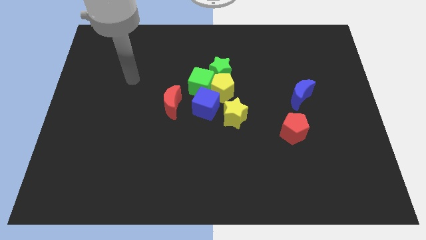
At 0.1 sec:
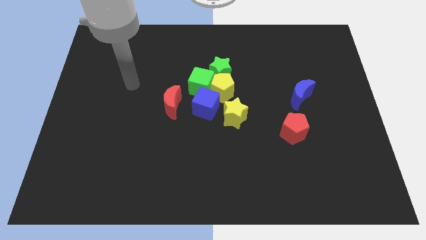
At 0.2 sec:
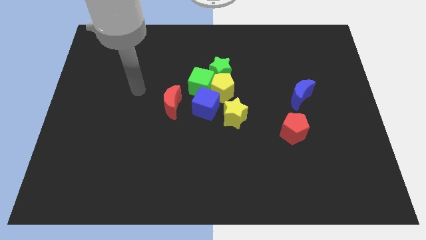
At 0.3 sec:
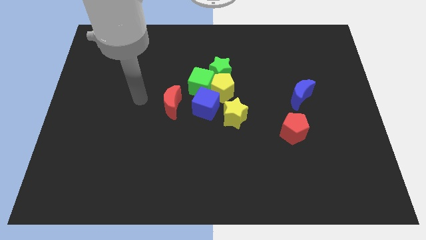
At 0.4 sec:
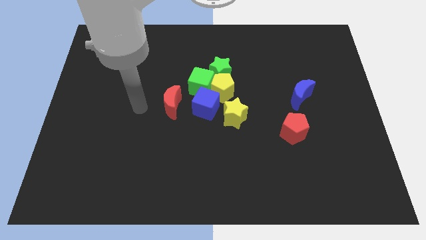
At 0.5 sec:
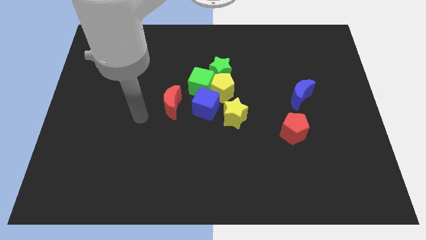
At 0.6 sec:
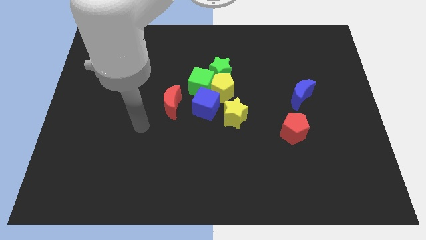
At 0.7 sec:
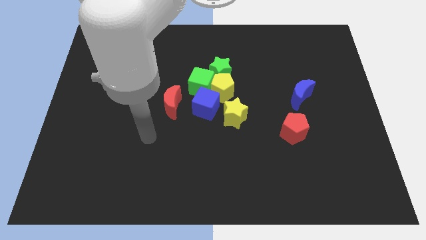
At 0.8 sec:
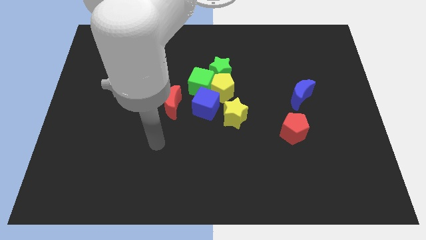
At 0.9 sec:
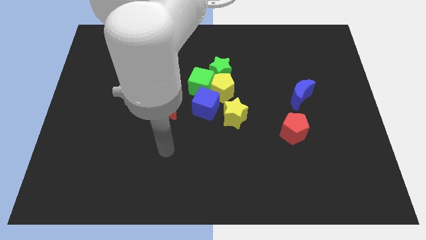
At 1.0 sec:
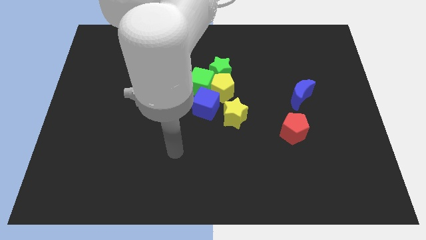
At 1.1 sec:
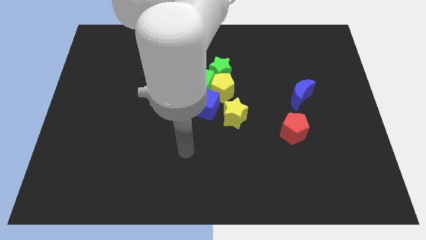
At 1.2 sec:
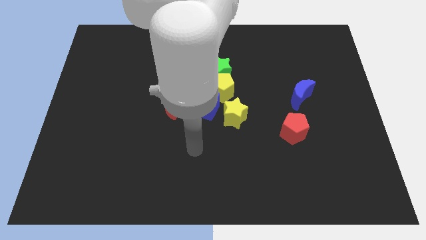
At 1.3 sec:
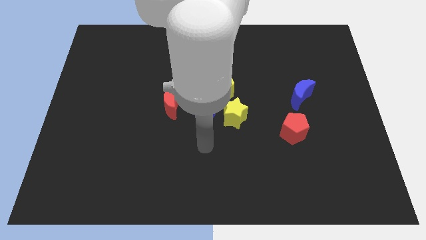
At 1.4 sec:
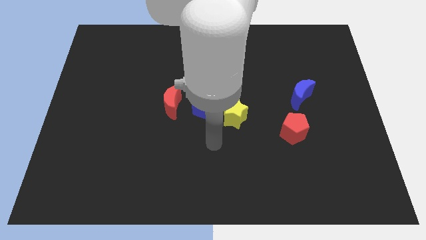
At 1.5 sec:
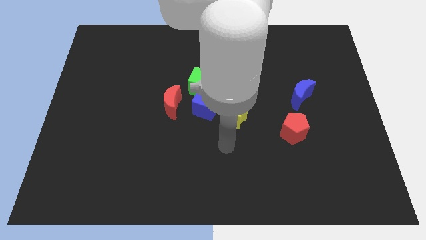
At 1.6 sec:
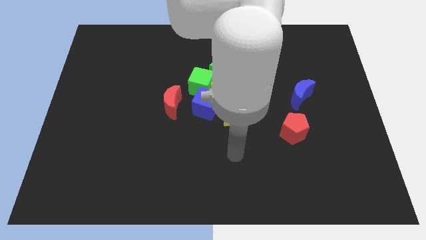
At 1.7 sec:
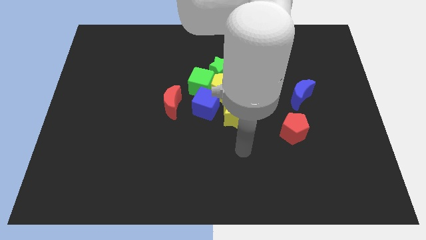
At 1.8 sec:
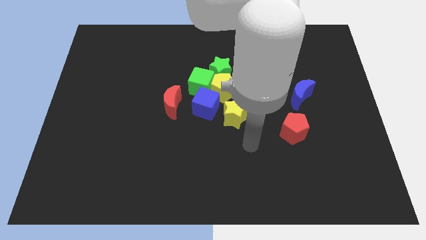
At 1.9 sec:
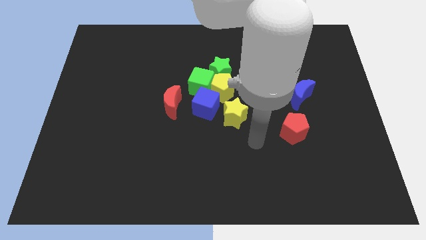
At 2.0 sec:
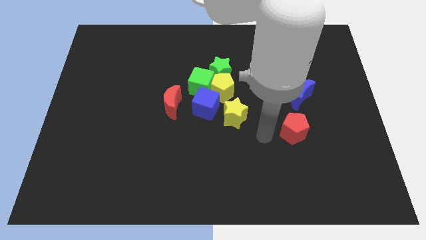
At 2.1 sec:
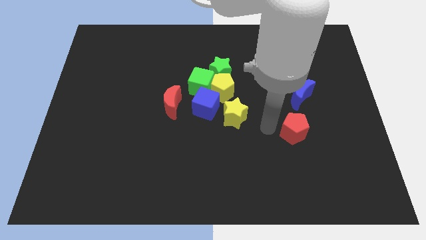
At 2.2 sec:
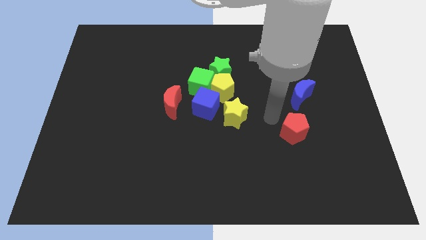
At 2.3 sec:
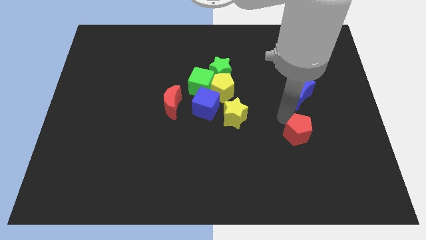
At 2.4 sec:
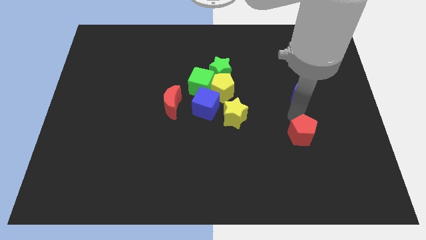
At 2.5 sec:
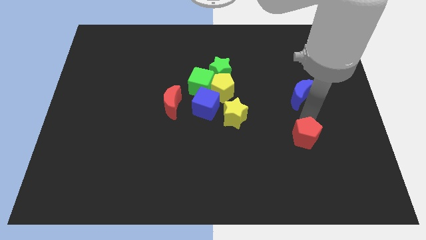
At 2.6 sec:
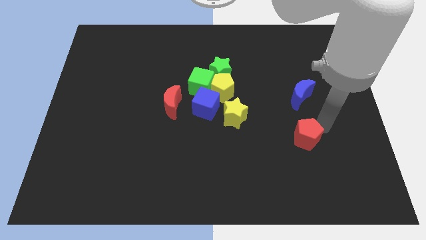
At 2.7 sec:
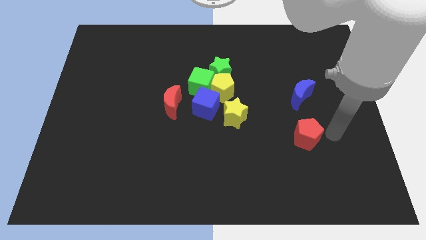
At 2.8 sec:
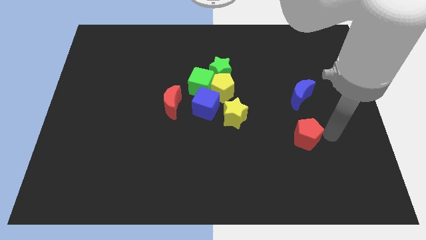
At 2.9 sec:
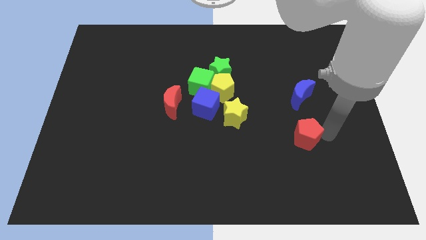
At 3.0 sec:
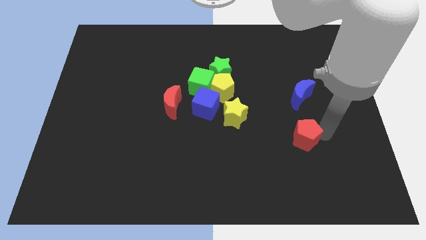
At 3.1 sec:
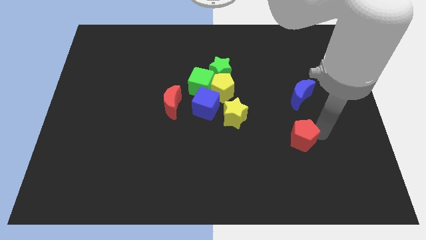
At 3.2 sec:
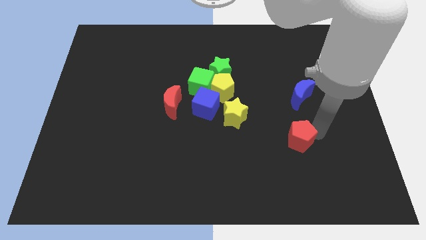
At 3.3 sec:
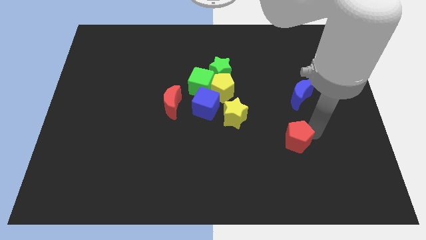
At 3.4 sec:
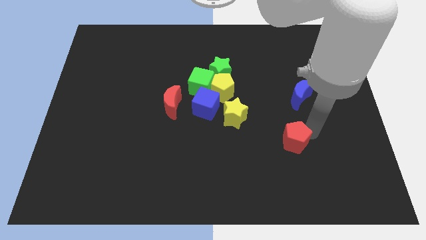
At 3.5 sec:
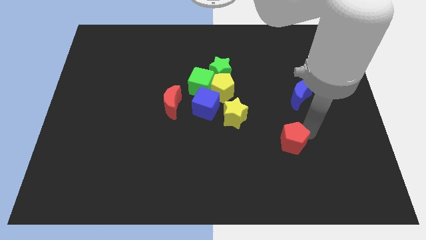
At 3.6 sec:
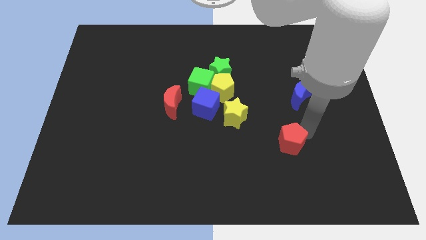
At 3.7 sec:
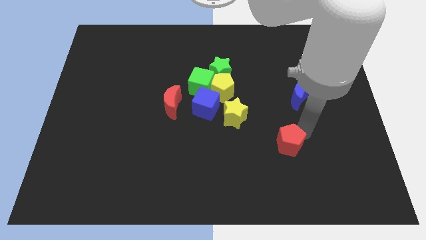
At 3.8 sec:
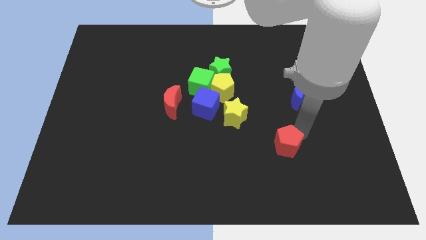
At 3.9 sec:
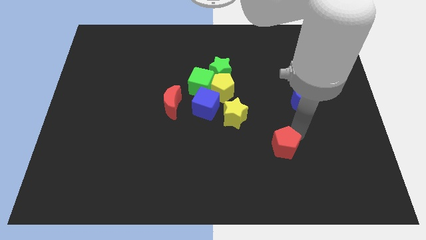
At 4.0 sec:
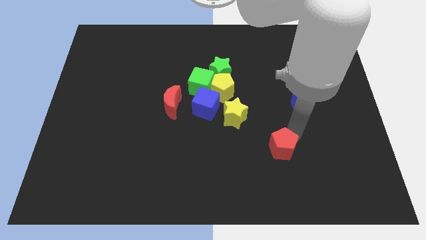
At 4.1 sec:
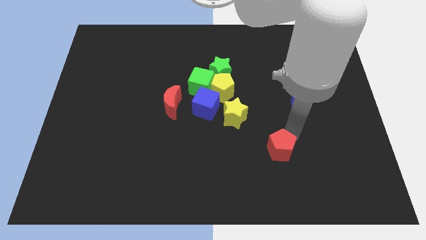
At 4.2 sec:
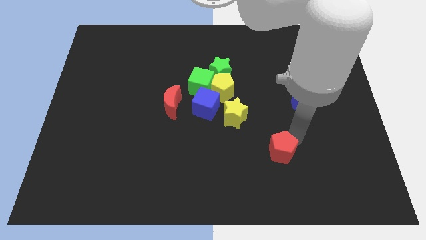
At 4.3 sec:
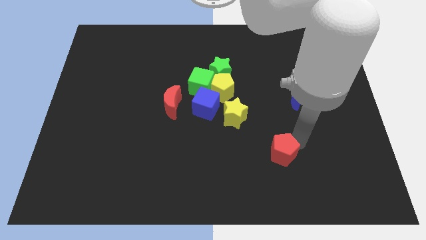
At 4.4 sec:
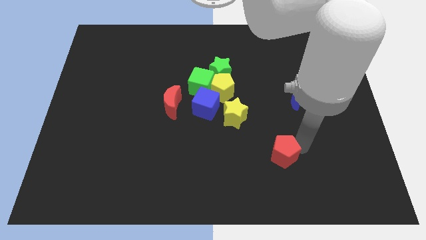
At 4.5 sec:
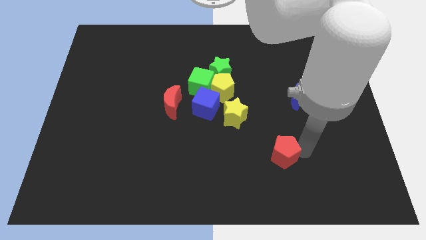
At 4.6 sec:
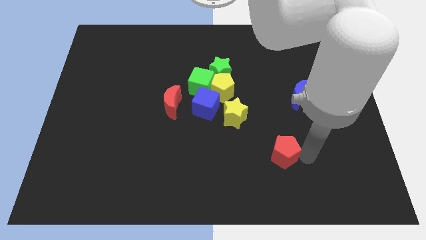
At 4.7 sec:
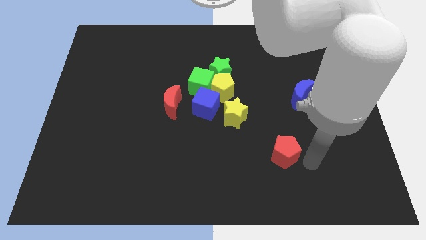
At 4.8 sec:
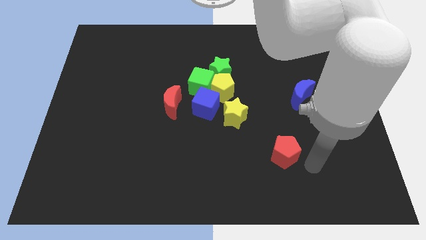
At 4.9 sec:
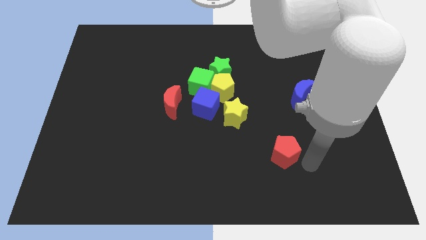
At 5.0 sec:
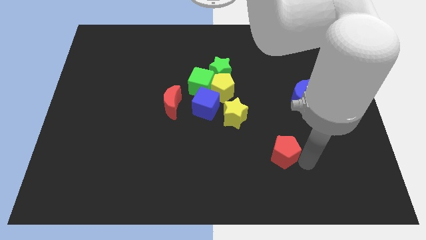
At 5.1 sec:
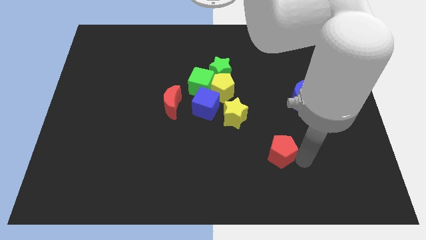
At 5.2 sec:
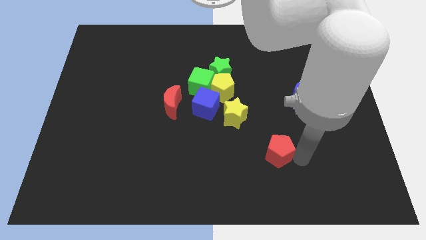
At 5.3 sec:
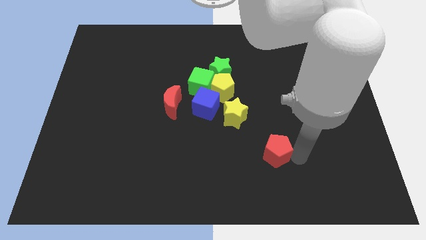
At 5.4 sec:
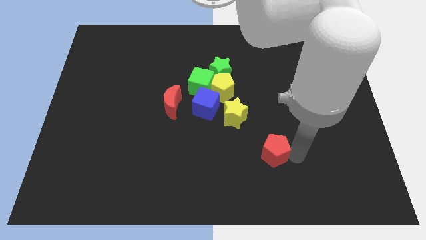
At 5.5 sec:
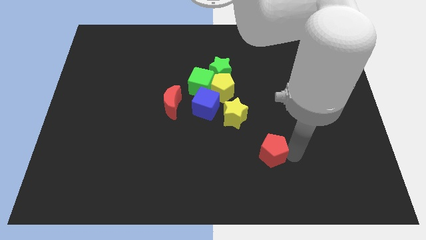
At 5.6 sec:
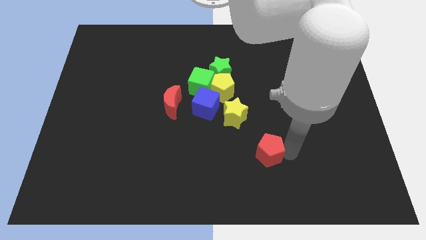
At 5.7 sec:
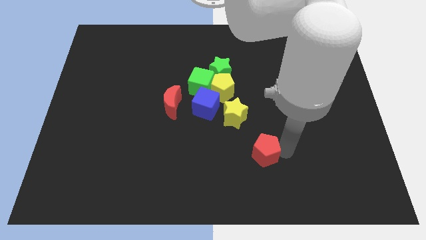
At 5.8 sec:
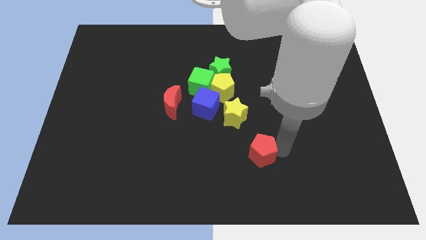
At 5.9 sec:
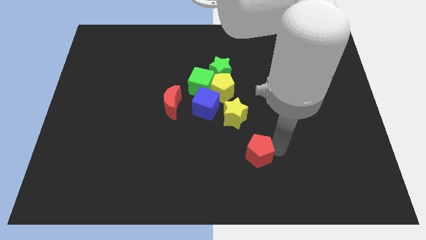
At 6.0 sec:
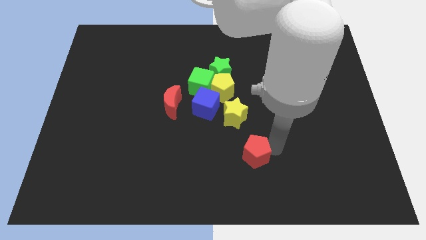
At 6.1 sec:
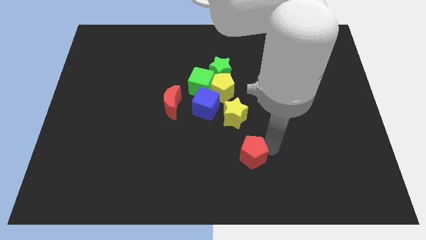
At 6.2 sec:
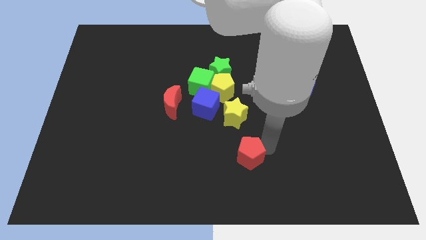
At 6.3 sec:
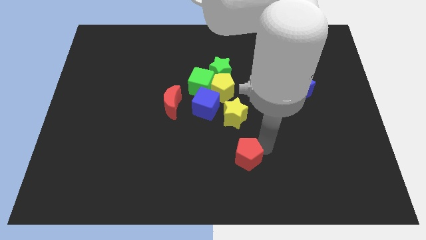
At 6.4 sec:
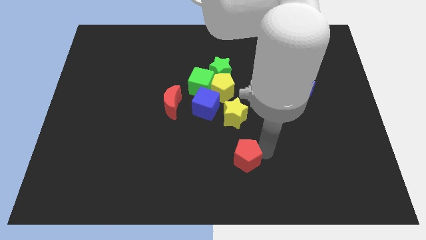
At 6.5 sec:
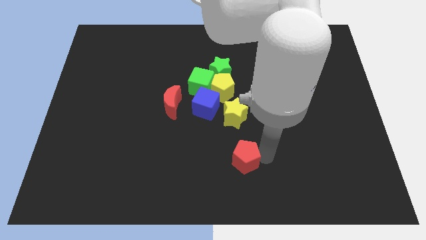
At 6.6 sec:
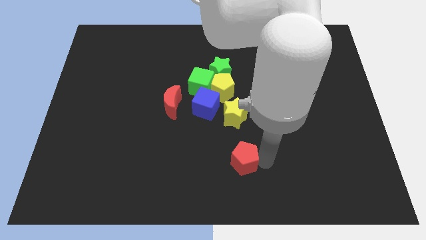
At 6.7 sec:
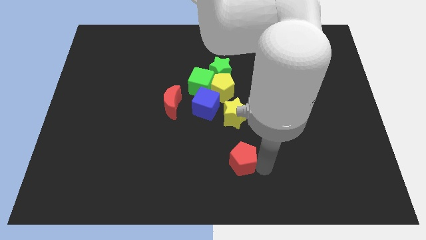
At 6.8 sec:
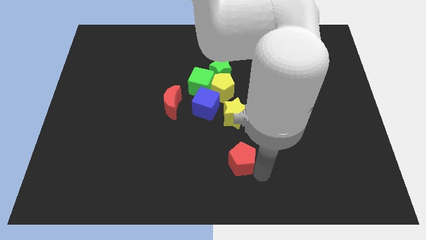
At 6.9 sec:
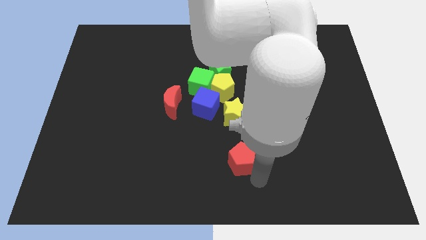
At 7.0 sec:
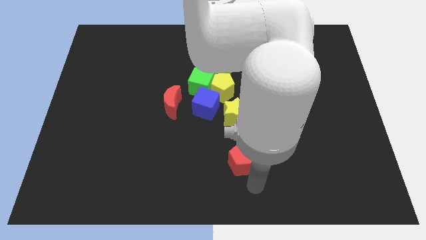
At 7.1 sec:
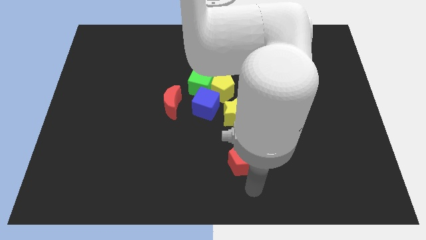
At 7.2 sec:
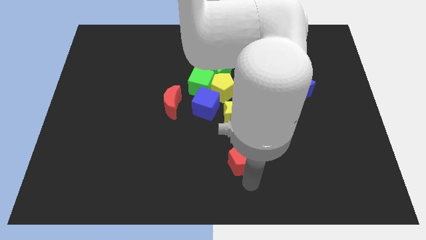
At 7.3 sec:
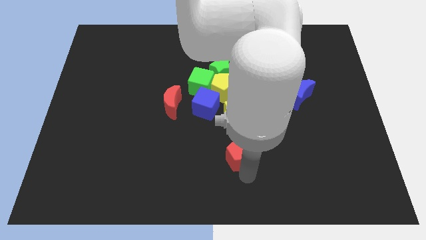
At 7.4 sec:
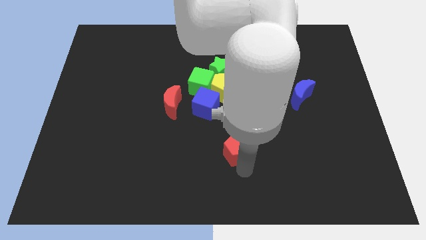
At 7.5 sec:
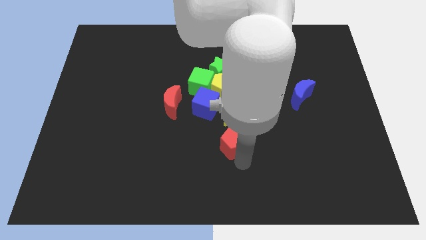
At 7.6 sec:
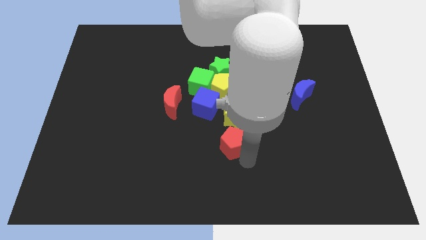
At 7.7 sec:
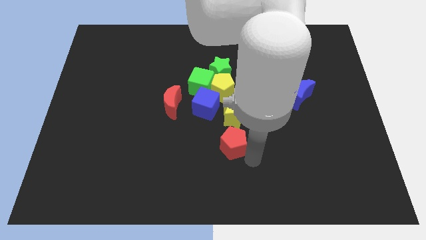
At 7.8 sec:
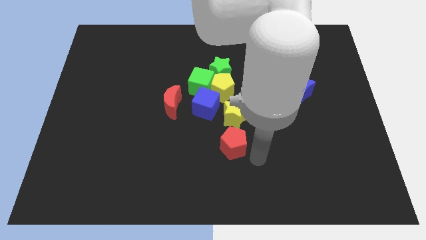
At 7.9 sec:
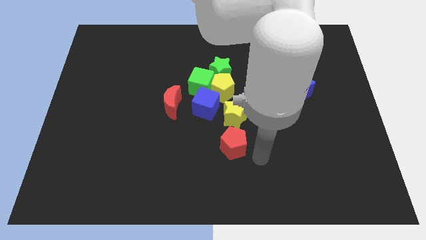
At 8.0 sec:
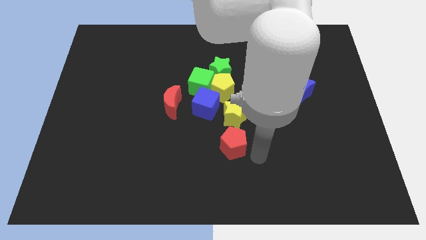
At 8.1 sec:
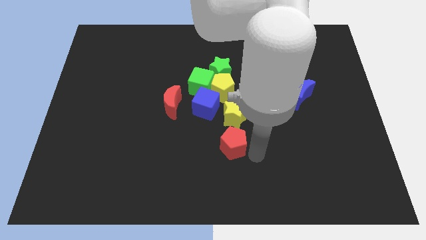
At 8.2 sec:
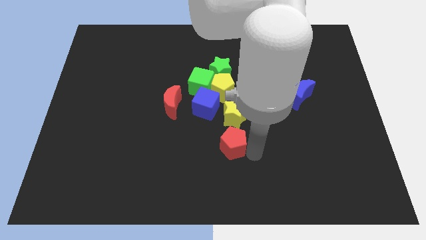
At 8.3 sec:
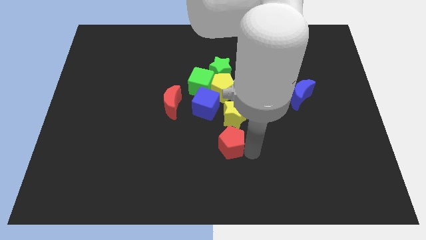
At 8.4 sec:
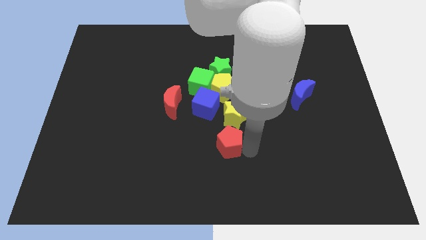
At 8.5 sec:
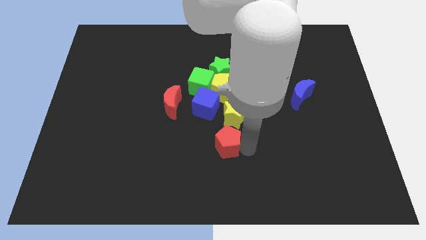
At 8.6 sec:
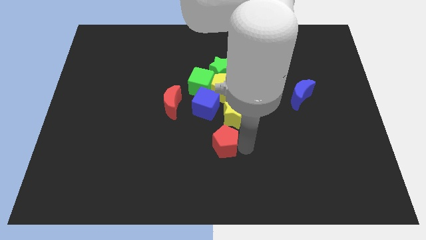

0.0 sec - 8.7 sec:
move the red pentagon to the center
